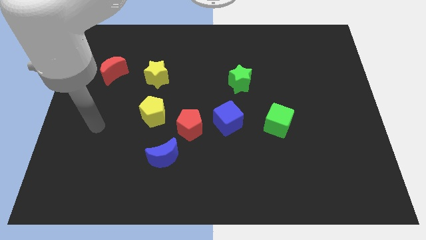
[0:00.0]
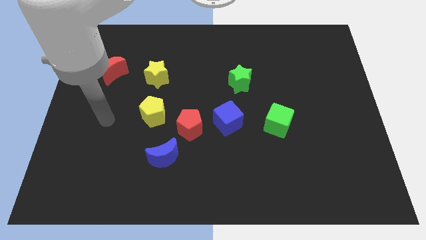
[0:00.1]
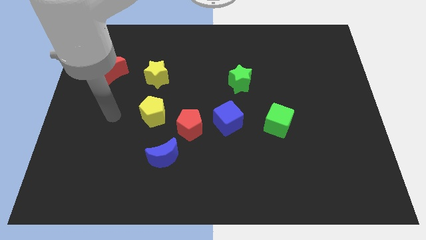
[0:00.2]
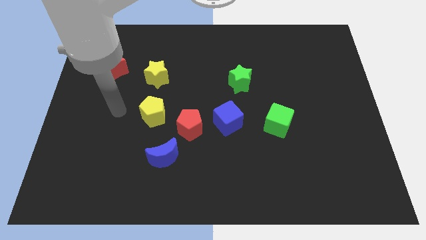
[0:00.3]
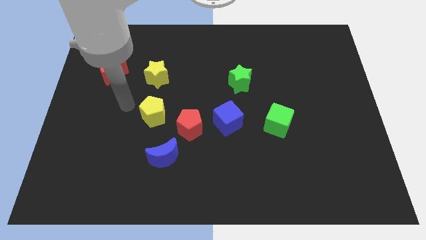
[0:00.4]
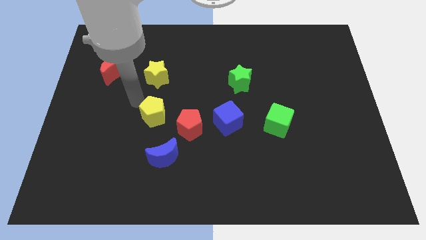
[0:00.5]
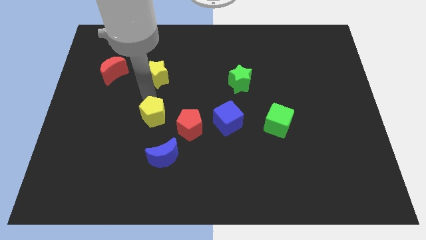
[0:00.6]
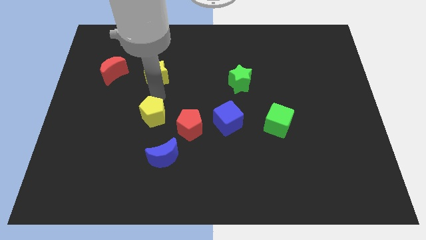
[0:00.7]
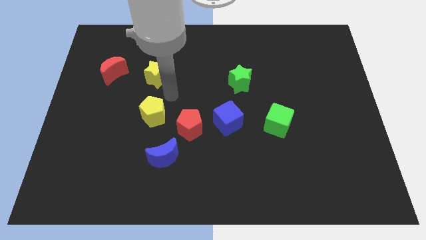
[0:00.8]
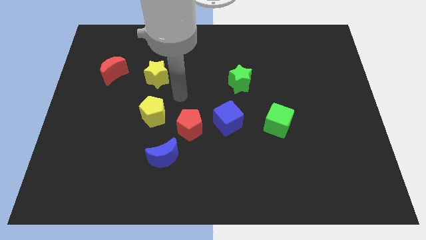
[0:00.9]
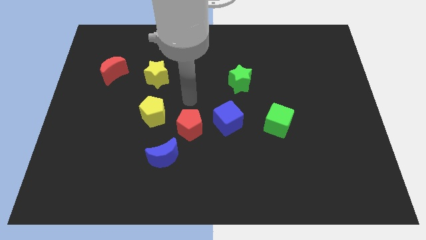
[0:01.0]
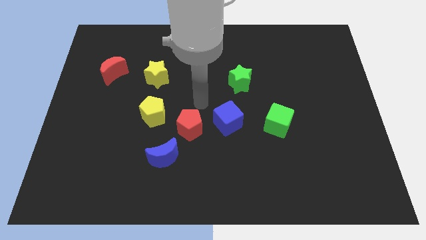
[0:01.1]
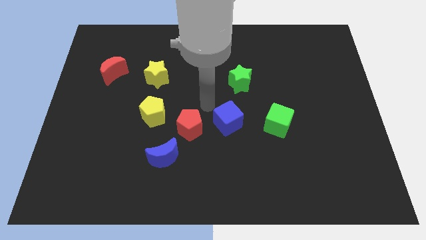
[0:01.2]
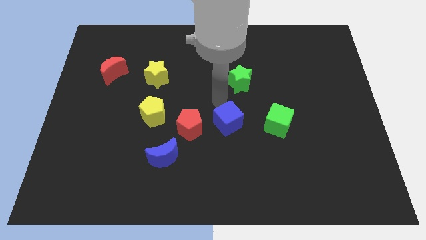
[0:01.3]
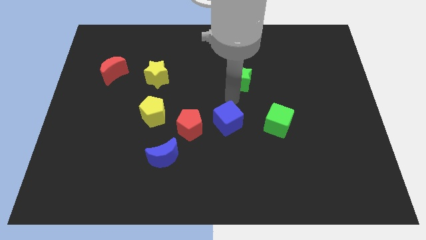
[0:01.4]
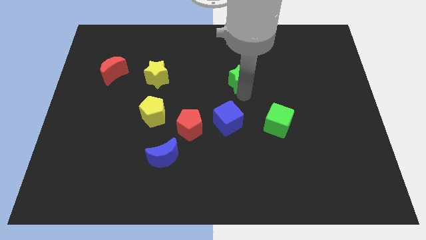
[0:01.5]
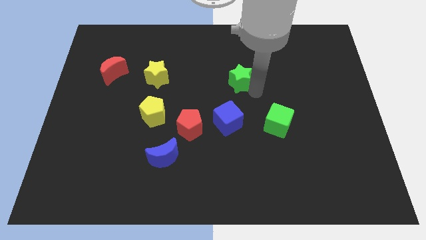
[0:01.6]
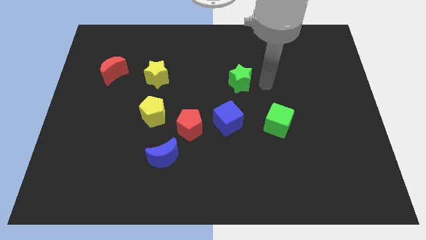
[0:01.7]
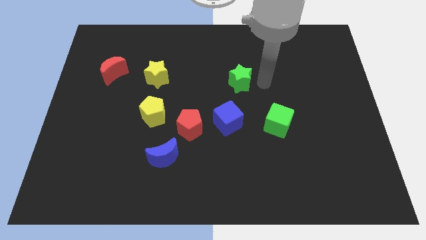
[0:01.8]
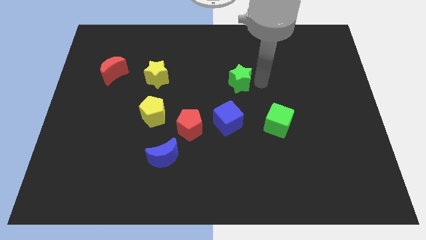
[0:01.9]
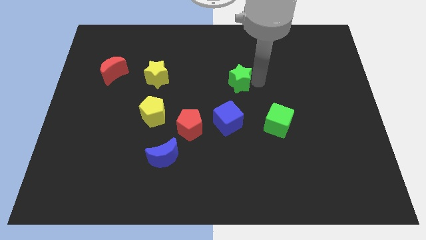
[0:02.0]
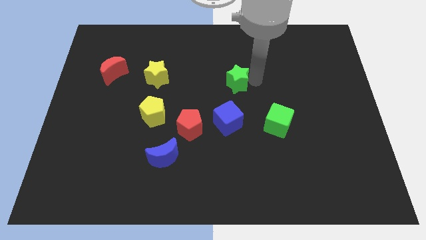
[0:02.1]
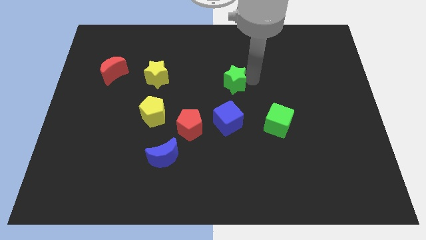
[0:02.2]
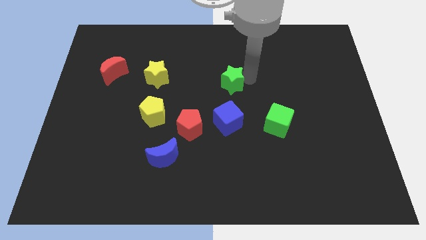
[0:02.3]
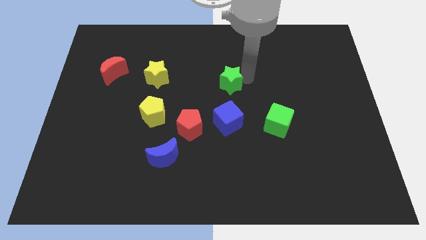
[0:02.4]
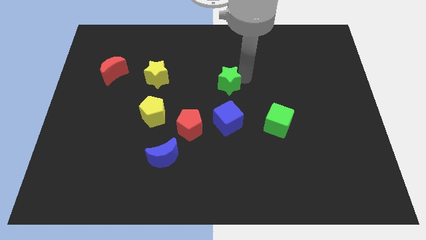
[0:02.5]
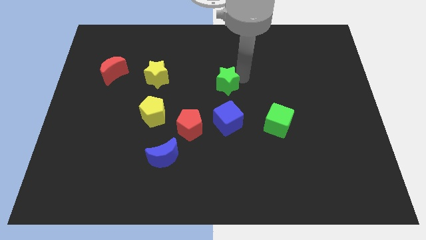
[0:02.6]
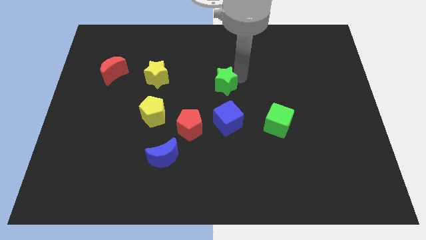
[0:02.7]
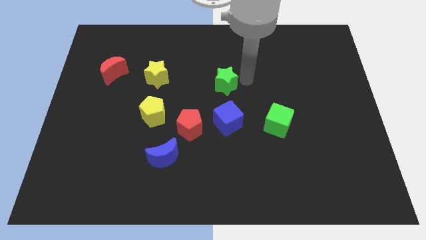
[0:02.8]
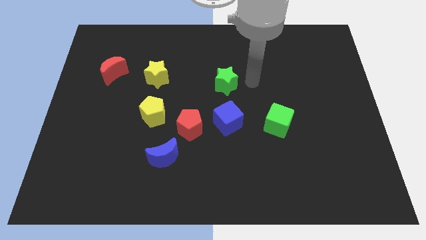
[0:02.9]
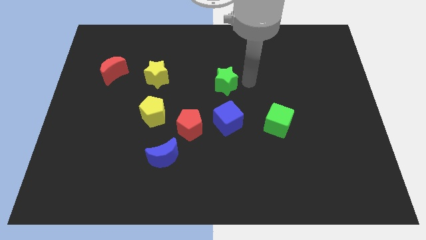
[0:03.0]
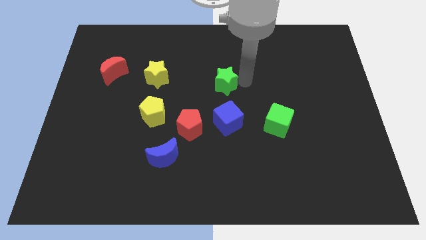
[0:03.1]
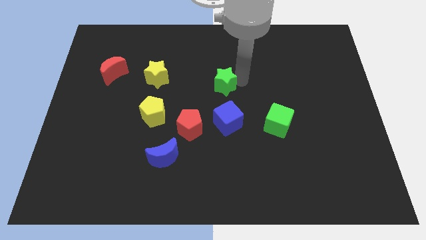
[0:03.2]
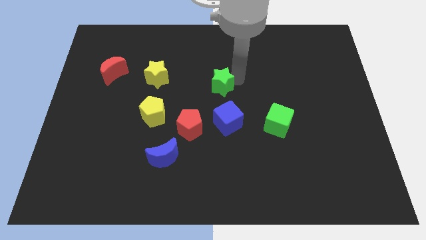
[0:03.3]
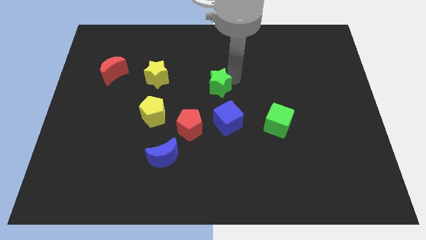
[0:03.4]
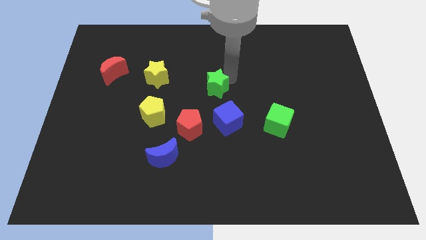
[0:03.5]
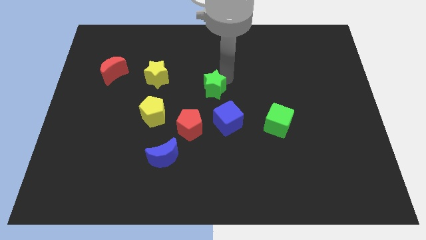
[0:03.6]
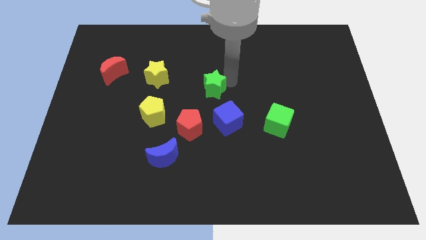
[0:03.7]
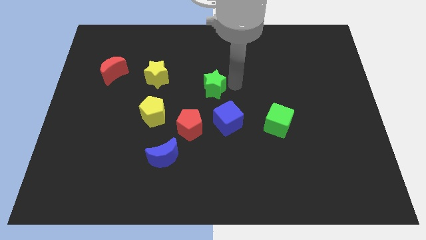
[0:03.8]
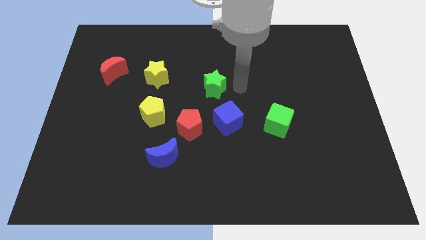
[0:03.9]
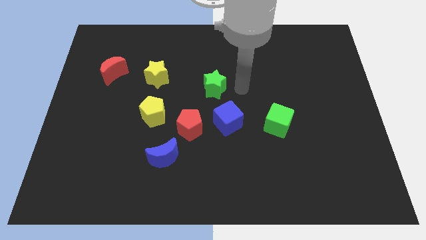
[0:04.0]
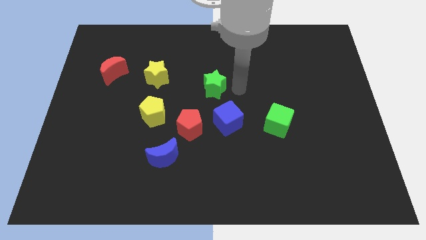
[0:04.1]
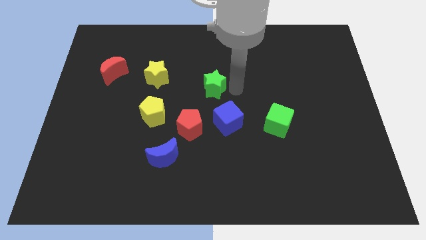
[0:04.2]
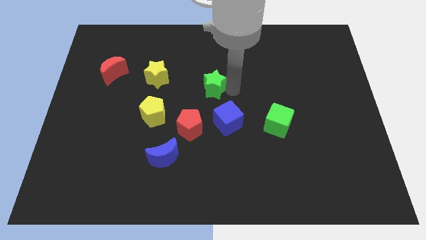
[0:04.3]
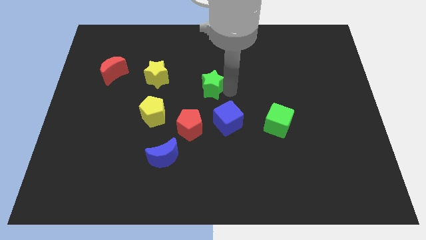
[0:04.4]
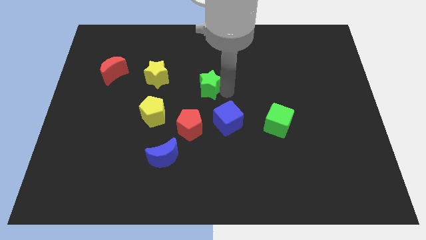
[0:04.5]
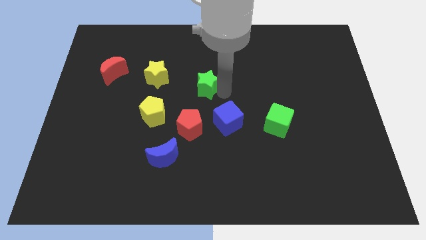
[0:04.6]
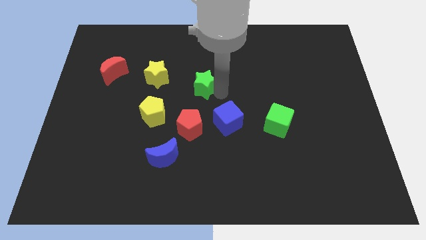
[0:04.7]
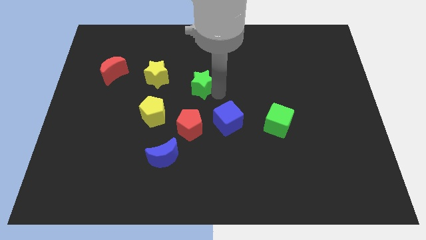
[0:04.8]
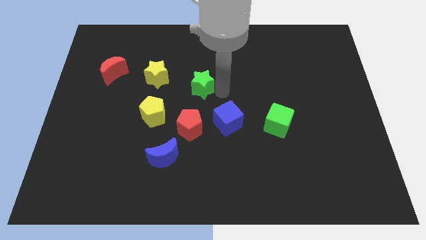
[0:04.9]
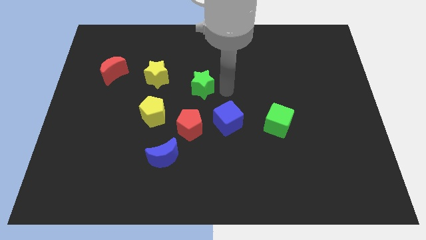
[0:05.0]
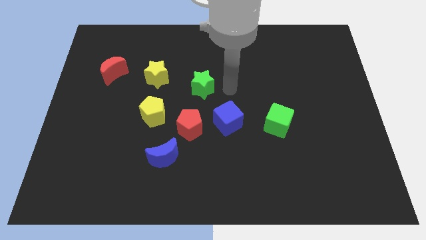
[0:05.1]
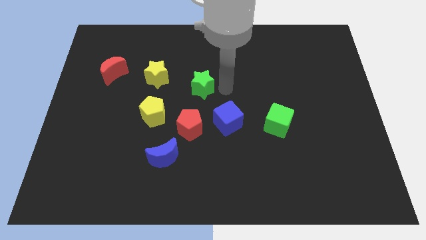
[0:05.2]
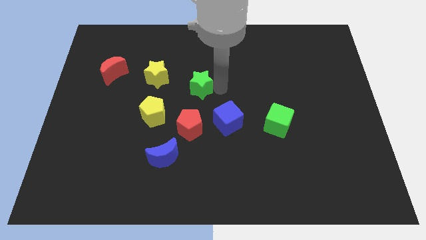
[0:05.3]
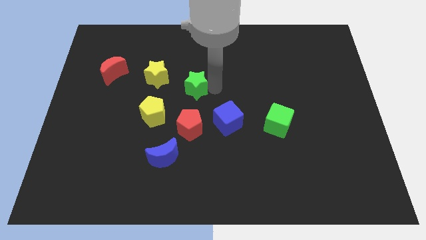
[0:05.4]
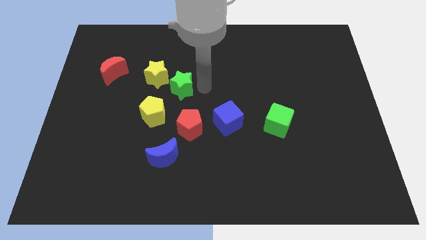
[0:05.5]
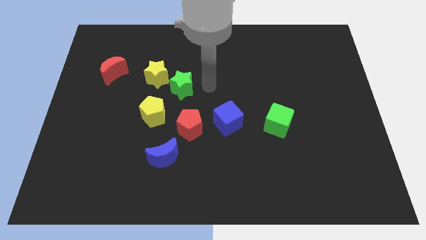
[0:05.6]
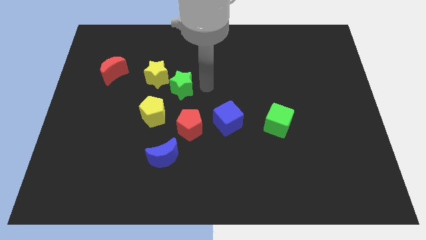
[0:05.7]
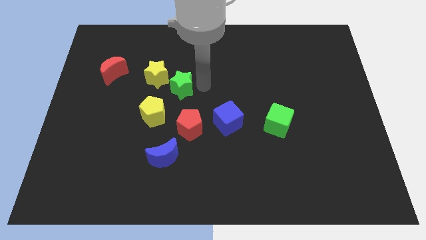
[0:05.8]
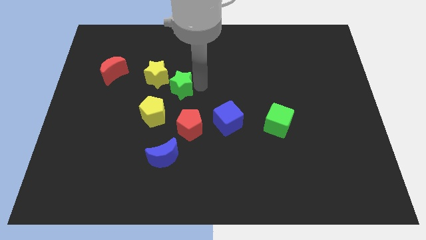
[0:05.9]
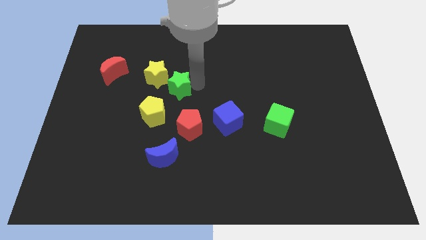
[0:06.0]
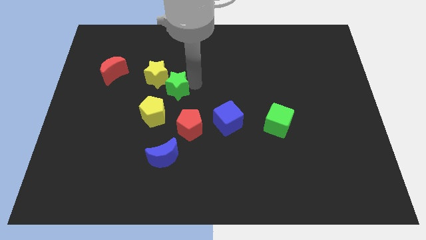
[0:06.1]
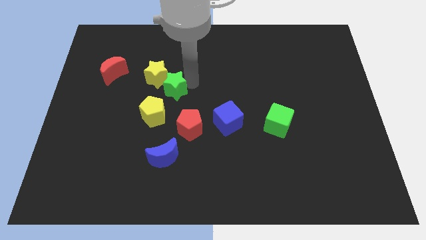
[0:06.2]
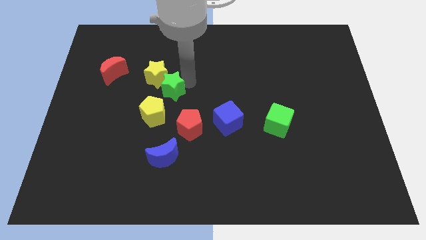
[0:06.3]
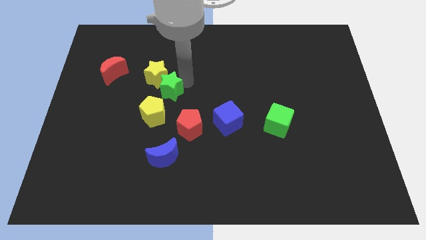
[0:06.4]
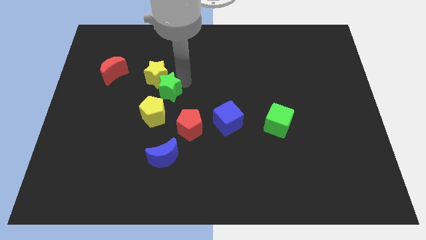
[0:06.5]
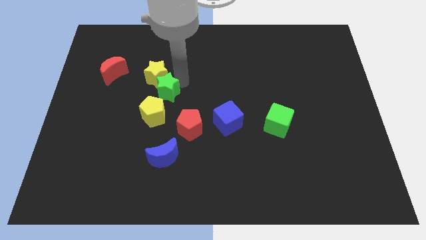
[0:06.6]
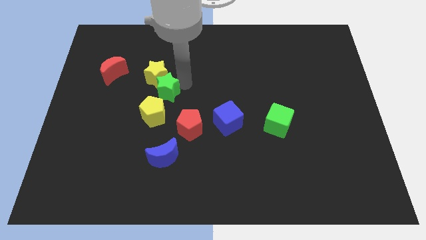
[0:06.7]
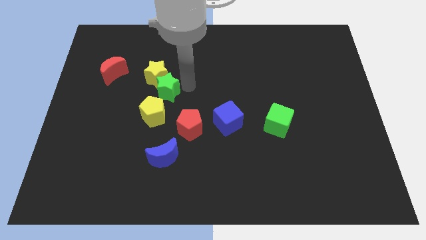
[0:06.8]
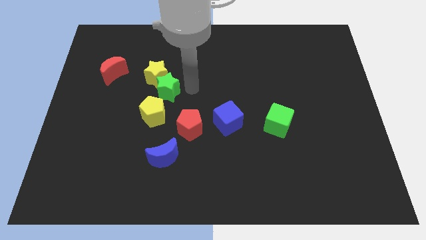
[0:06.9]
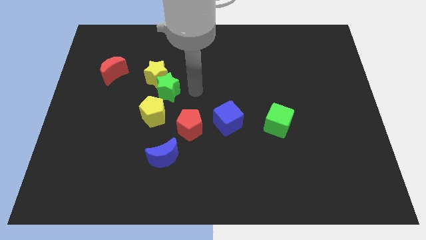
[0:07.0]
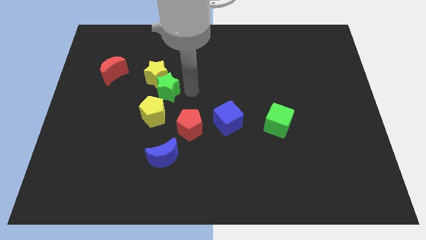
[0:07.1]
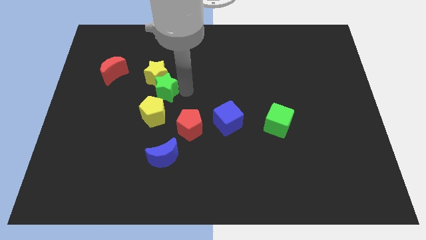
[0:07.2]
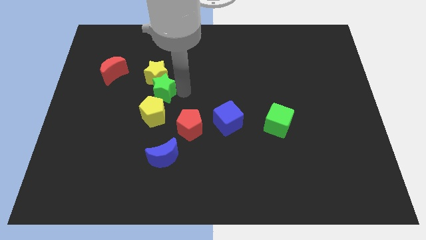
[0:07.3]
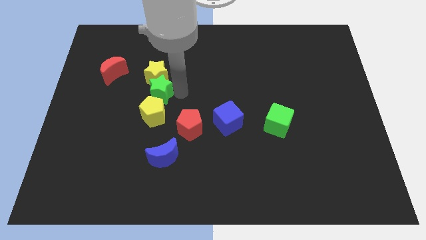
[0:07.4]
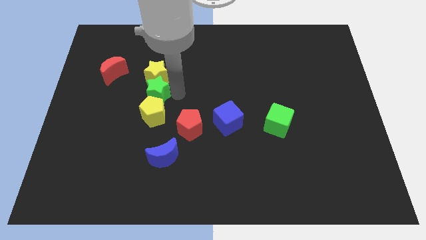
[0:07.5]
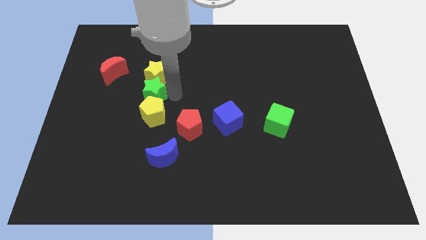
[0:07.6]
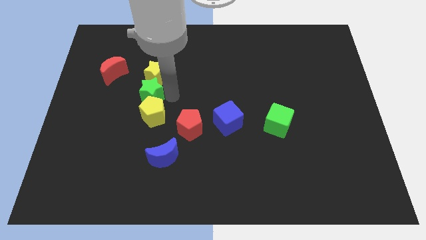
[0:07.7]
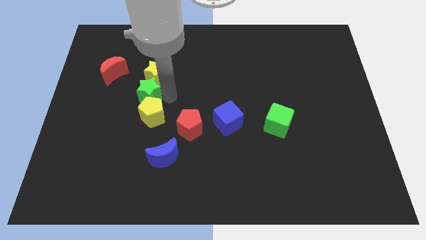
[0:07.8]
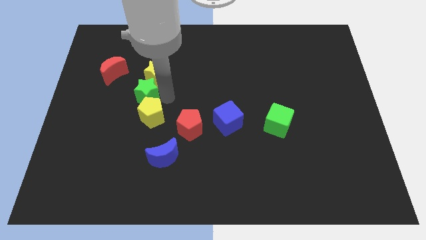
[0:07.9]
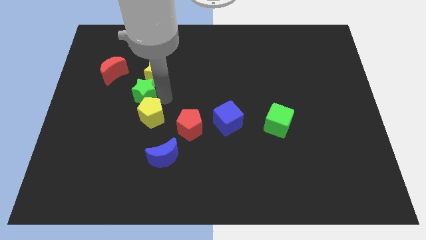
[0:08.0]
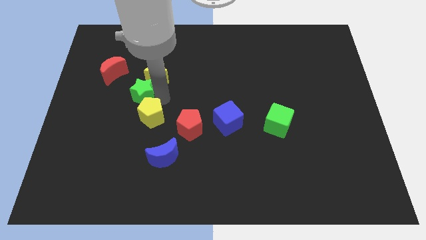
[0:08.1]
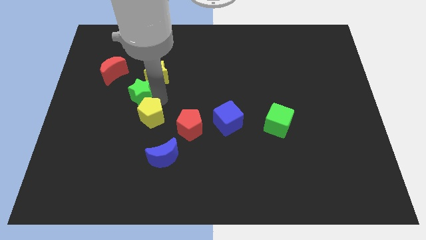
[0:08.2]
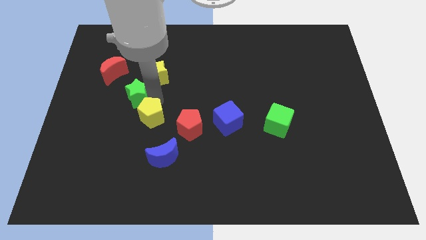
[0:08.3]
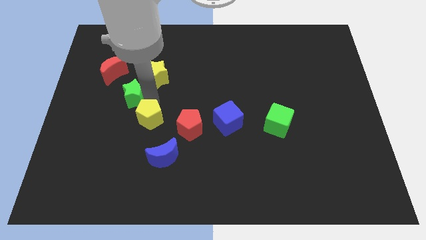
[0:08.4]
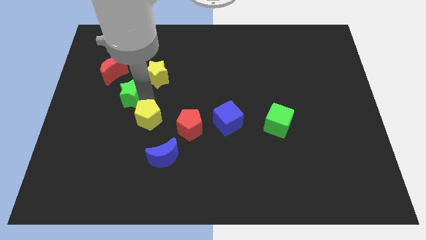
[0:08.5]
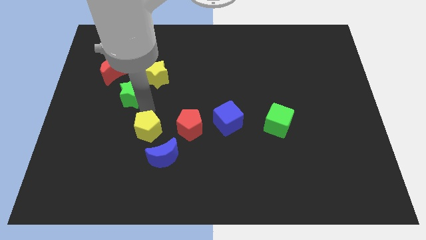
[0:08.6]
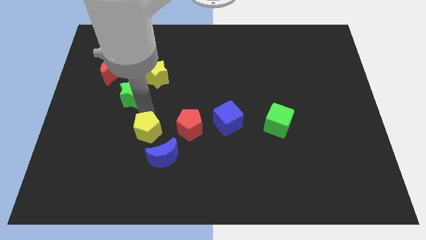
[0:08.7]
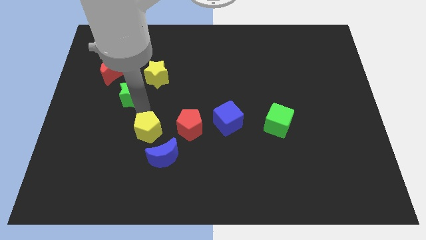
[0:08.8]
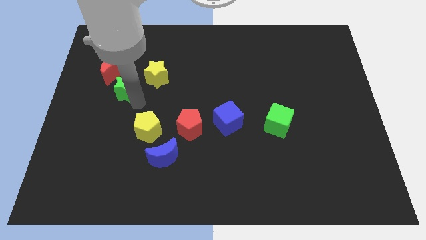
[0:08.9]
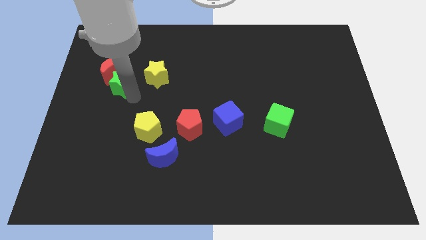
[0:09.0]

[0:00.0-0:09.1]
slide the green star next to the red moon
